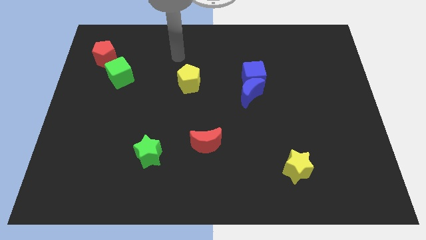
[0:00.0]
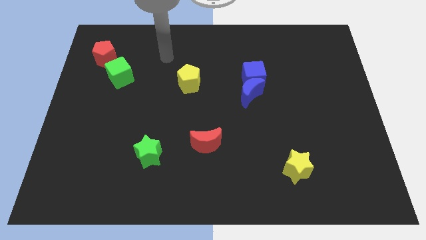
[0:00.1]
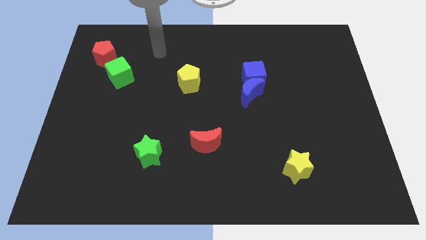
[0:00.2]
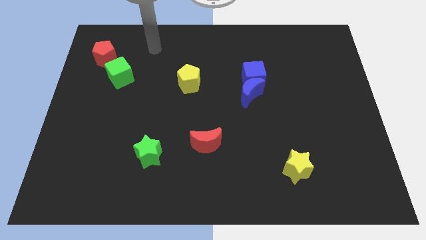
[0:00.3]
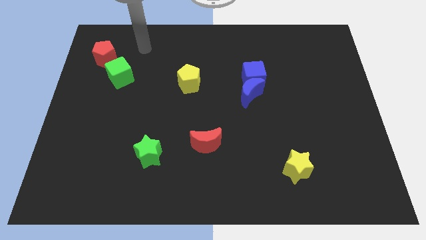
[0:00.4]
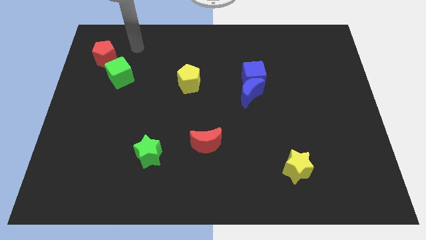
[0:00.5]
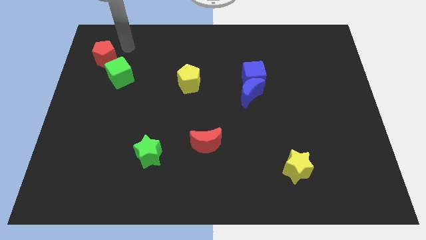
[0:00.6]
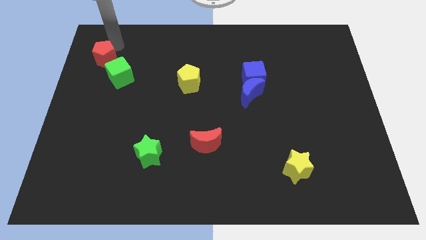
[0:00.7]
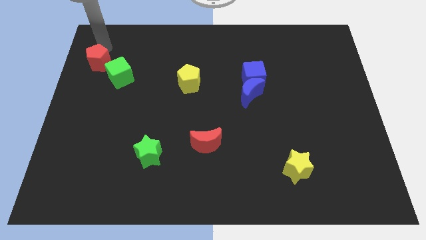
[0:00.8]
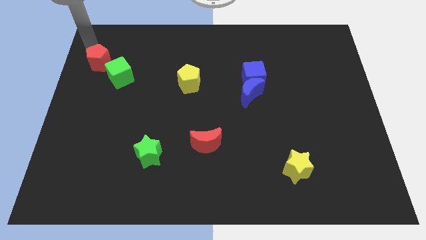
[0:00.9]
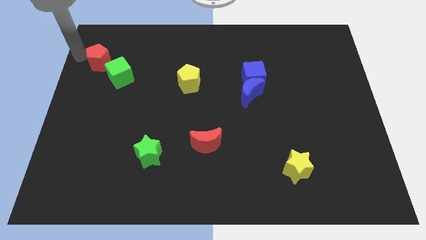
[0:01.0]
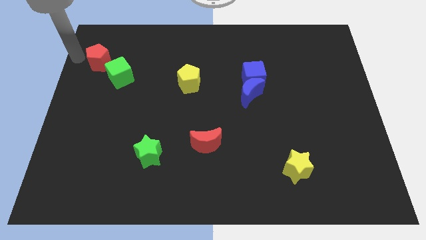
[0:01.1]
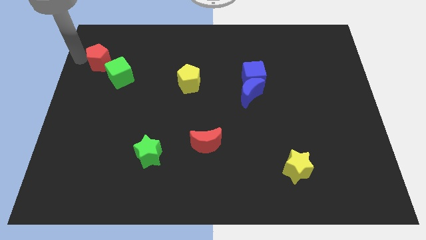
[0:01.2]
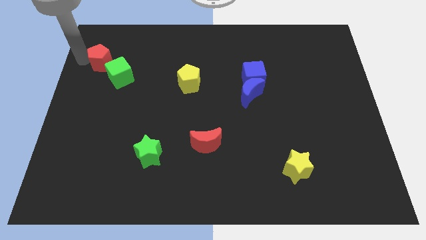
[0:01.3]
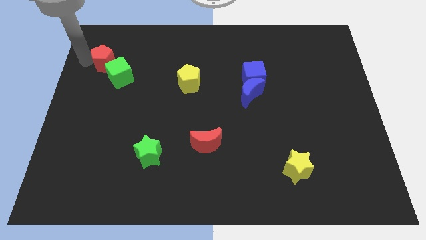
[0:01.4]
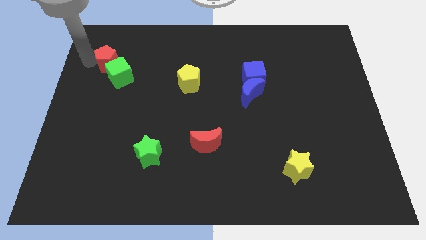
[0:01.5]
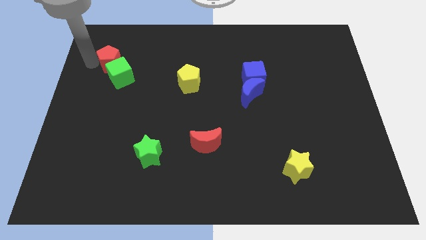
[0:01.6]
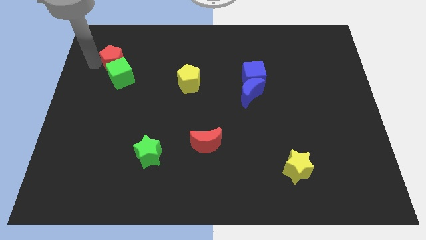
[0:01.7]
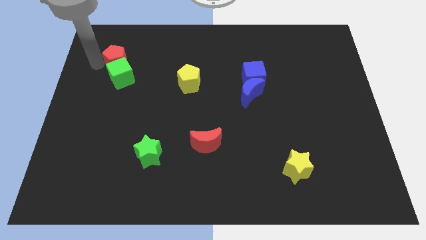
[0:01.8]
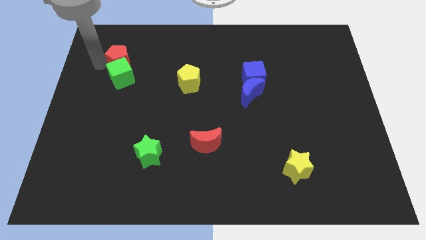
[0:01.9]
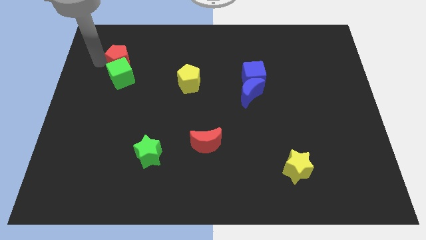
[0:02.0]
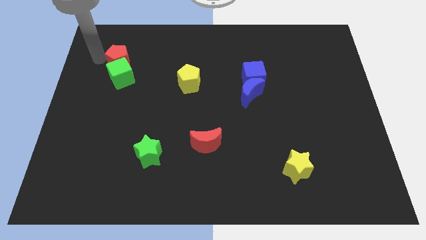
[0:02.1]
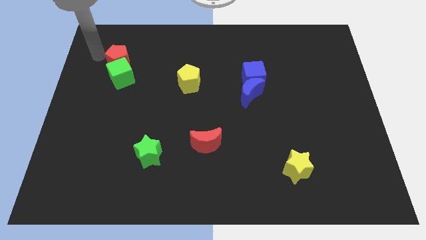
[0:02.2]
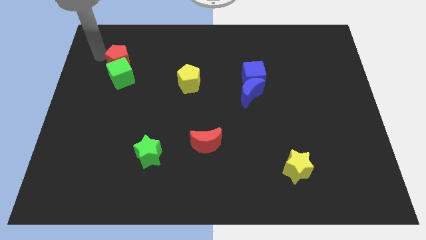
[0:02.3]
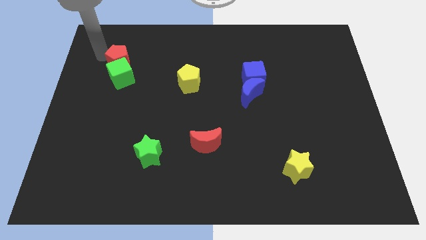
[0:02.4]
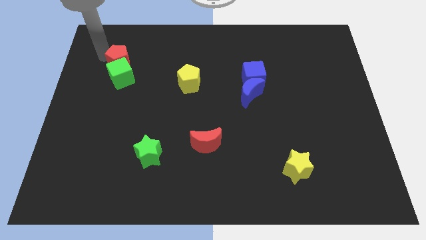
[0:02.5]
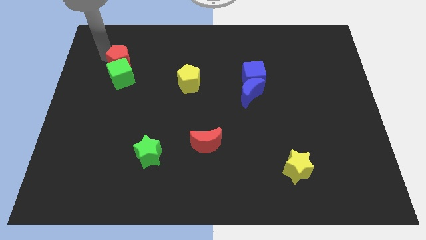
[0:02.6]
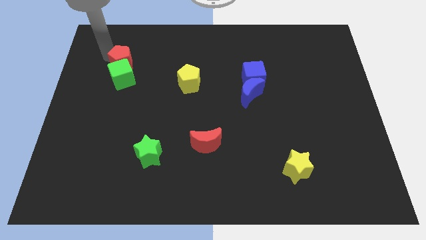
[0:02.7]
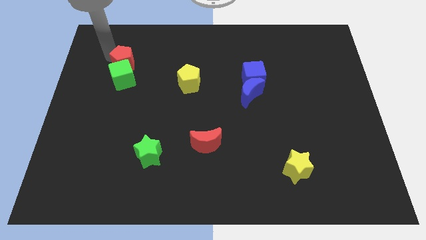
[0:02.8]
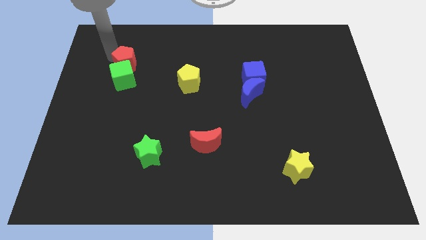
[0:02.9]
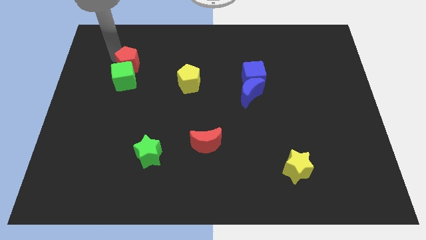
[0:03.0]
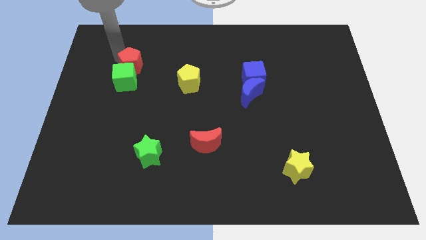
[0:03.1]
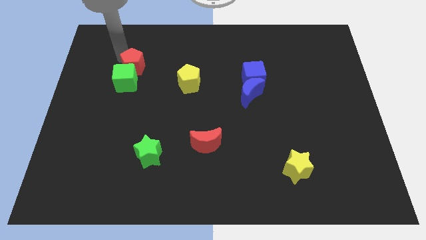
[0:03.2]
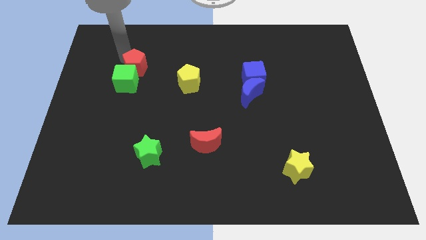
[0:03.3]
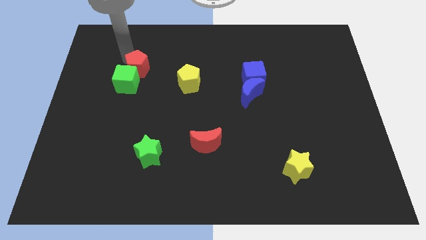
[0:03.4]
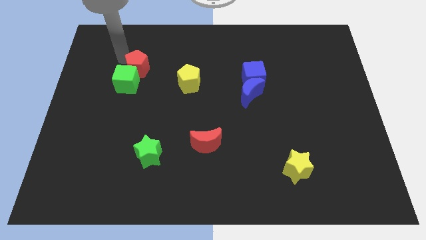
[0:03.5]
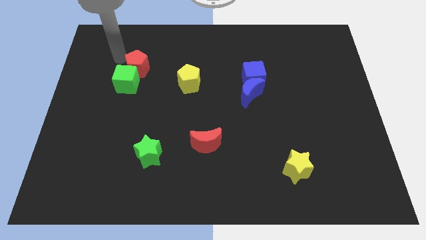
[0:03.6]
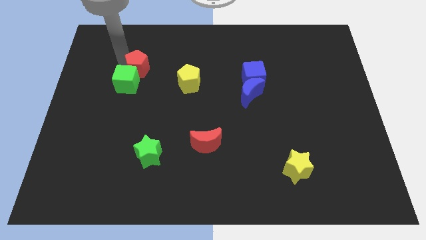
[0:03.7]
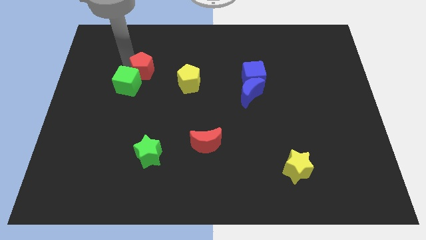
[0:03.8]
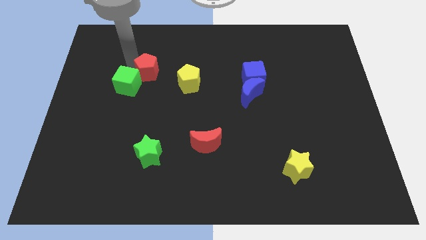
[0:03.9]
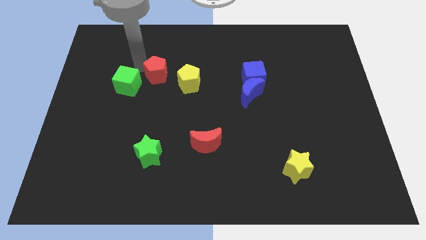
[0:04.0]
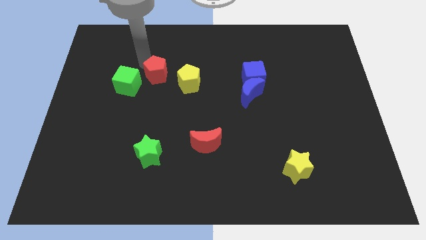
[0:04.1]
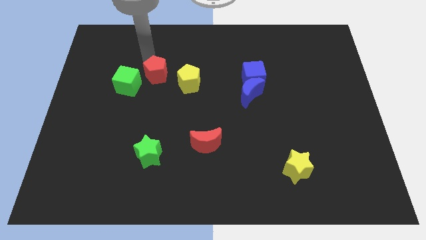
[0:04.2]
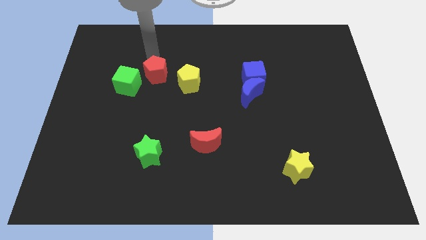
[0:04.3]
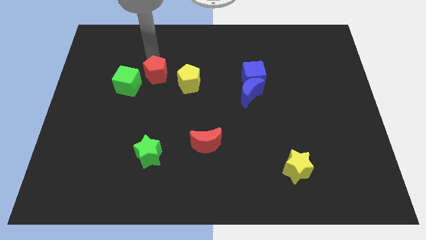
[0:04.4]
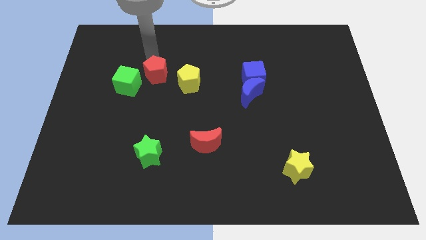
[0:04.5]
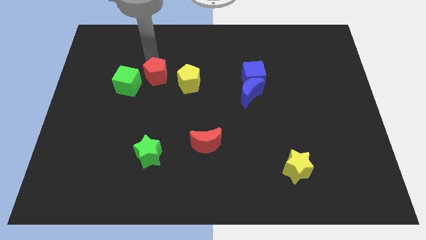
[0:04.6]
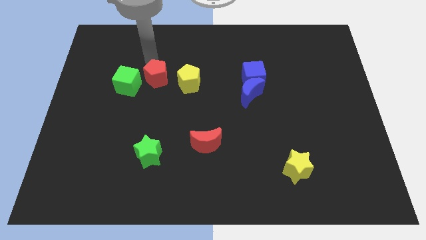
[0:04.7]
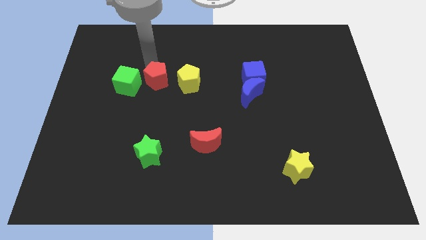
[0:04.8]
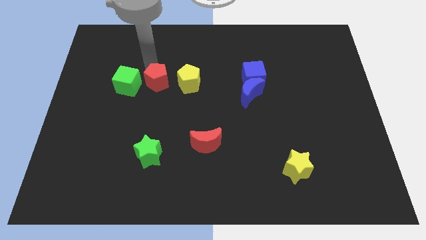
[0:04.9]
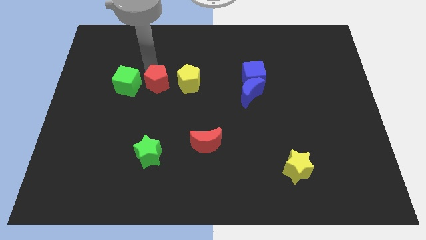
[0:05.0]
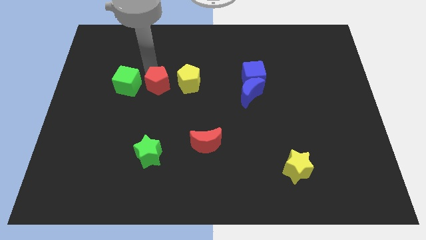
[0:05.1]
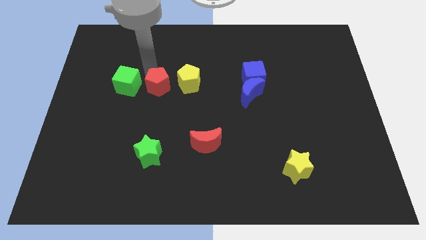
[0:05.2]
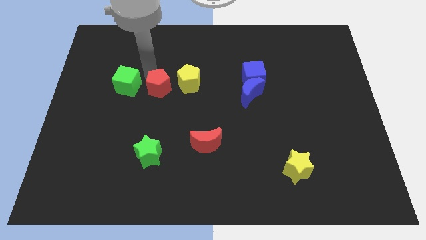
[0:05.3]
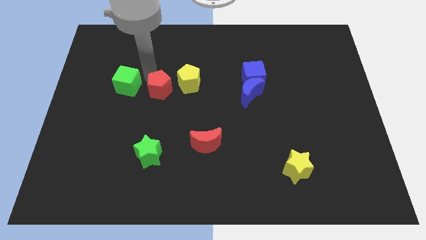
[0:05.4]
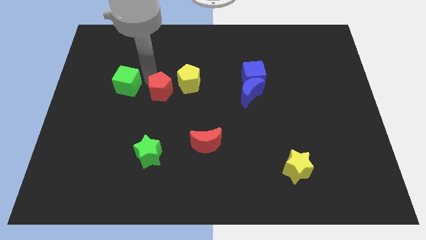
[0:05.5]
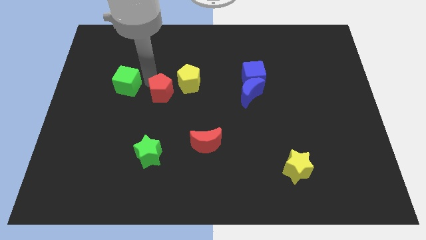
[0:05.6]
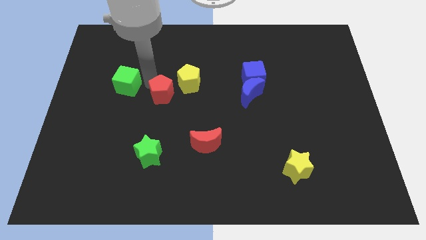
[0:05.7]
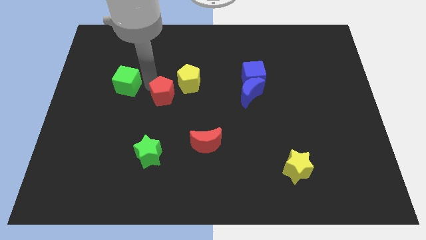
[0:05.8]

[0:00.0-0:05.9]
slide the red pentagon diagonally down and right

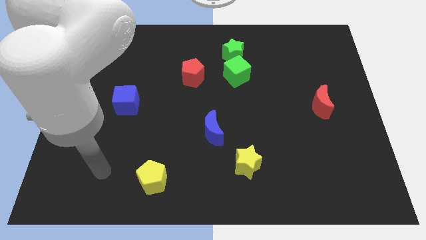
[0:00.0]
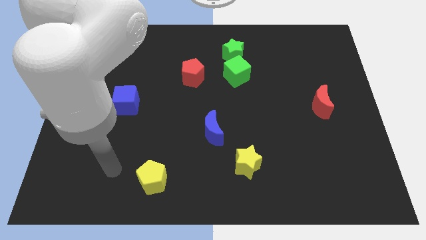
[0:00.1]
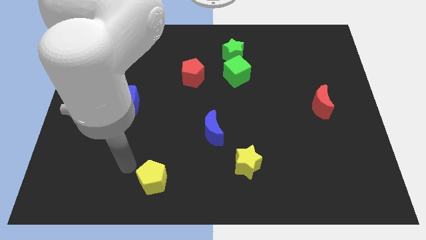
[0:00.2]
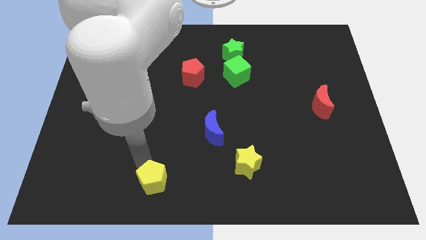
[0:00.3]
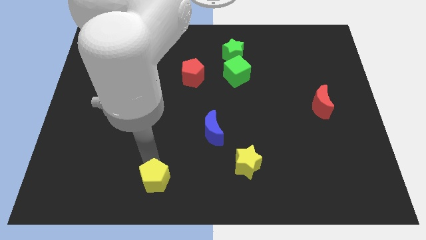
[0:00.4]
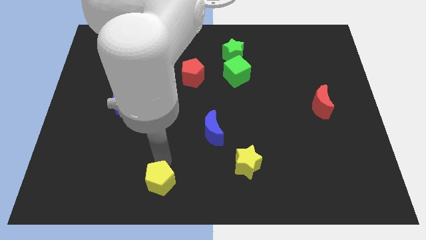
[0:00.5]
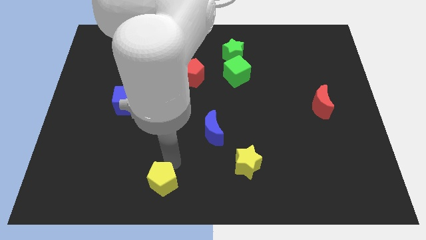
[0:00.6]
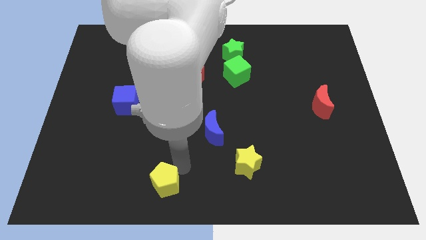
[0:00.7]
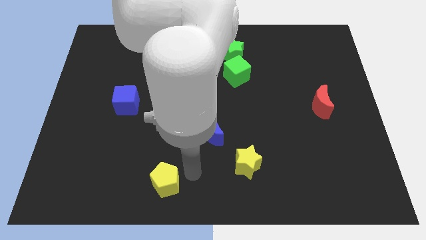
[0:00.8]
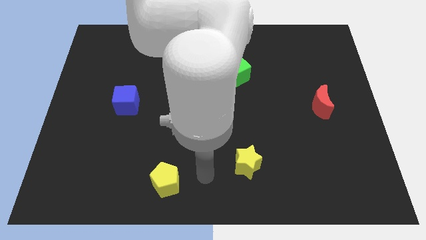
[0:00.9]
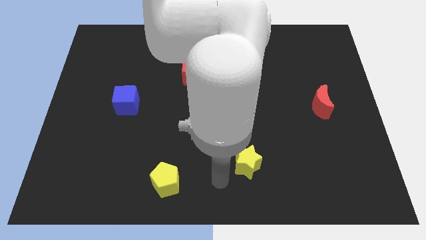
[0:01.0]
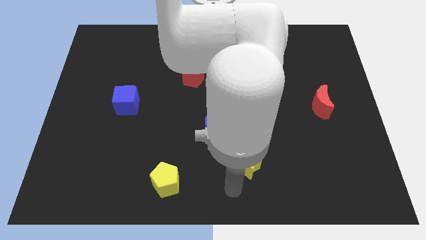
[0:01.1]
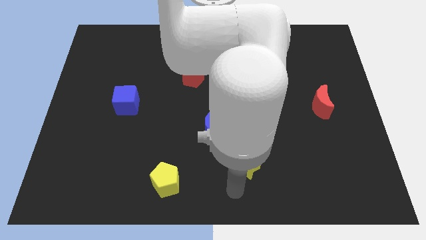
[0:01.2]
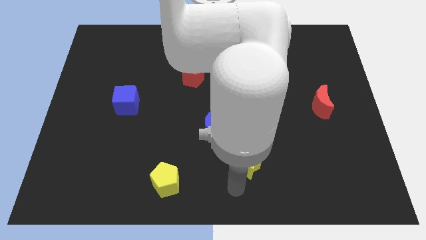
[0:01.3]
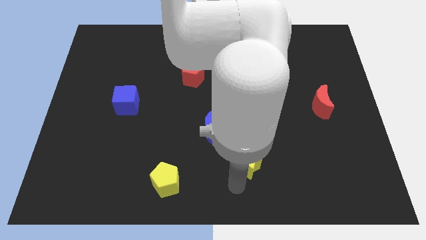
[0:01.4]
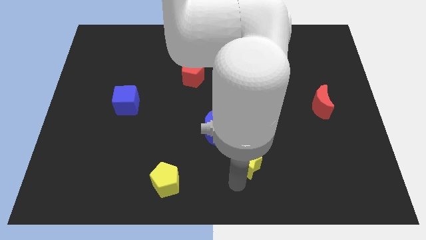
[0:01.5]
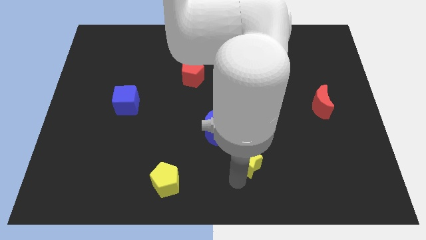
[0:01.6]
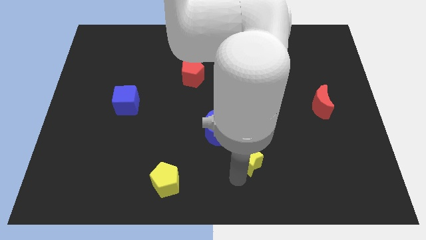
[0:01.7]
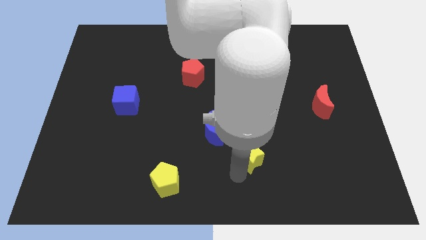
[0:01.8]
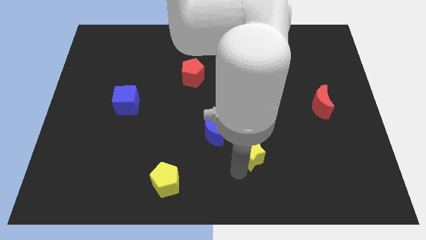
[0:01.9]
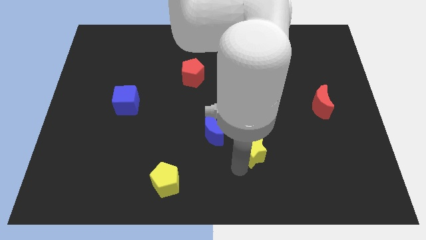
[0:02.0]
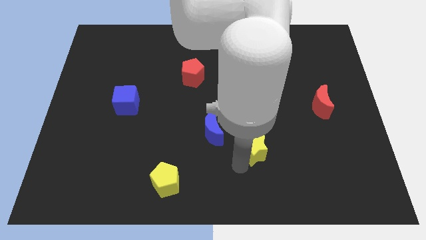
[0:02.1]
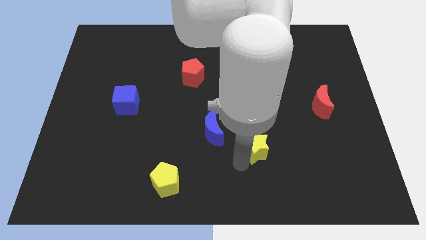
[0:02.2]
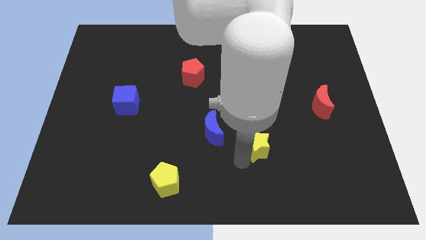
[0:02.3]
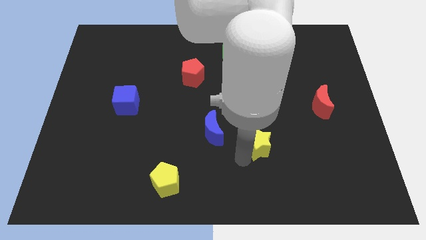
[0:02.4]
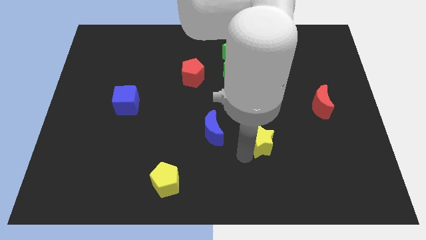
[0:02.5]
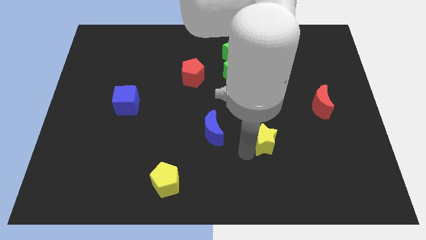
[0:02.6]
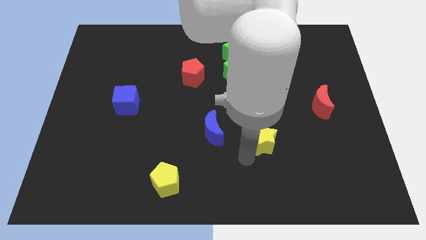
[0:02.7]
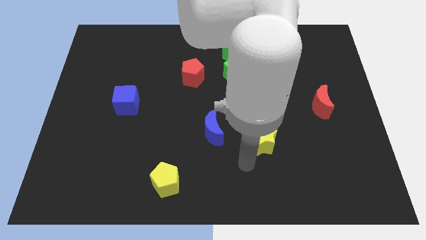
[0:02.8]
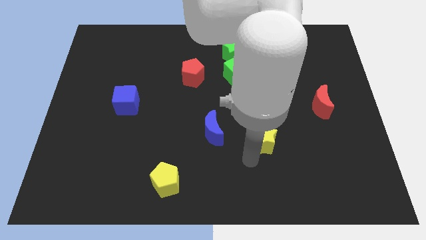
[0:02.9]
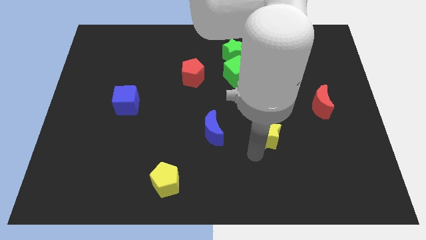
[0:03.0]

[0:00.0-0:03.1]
slide the yellow star slightly upwards and then to the right
